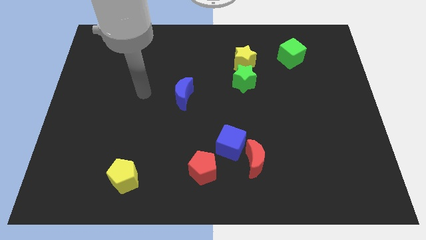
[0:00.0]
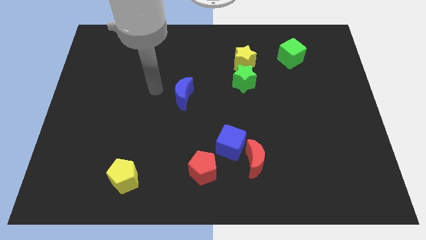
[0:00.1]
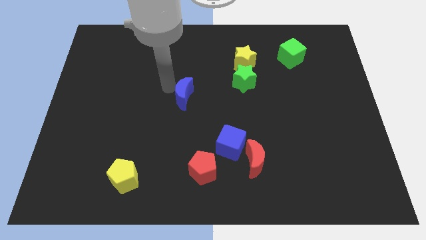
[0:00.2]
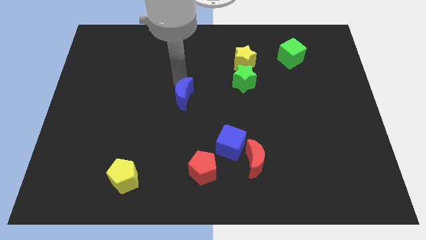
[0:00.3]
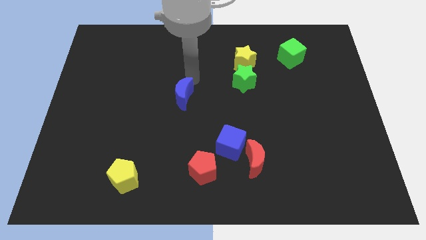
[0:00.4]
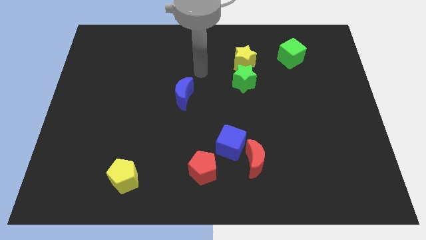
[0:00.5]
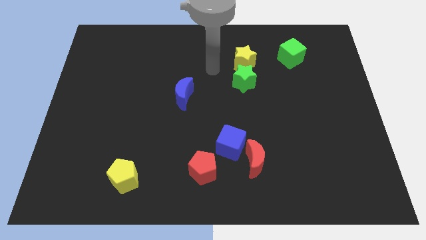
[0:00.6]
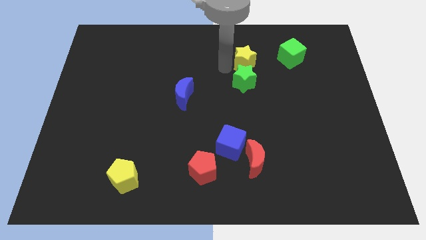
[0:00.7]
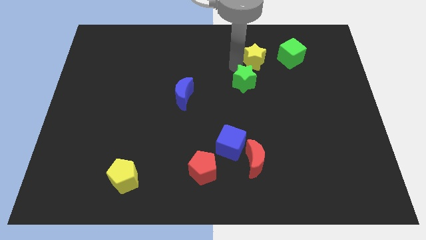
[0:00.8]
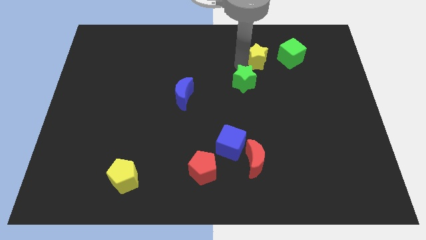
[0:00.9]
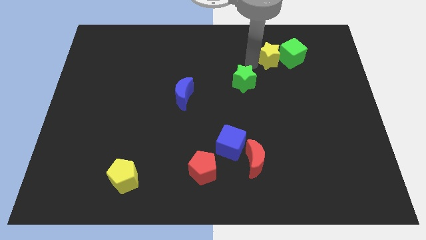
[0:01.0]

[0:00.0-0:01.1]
separate the green star from the yellow star

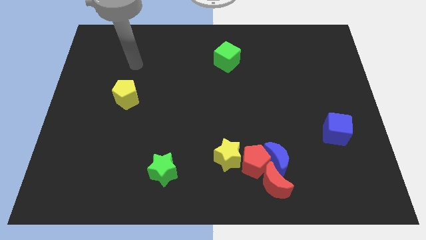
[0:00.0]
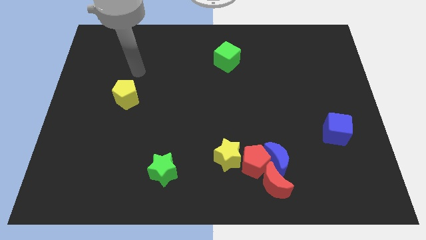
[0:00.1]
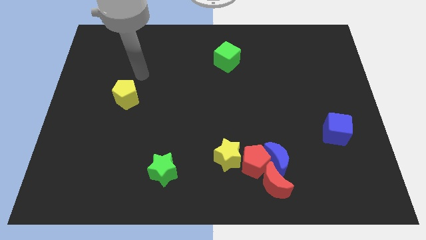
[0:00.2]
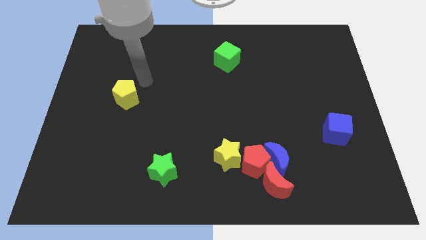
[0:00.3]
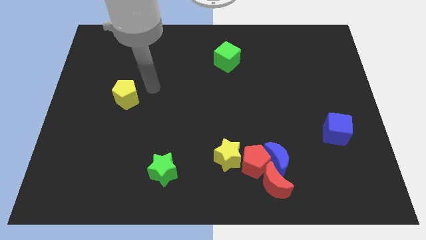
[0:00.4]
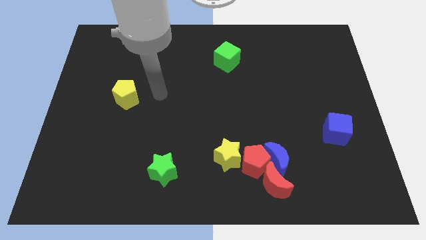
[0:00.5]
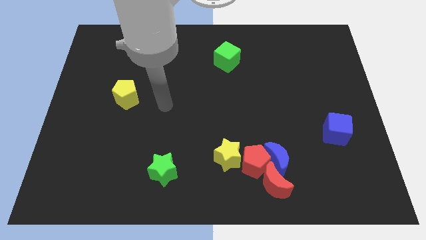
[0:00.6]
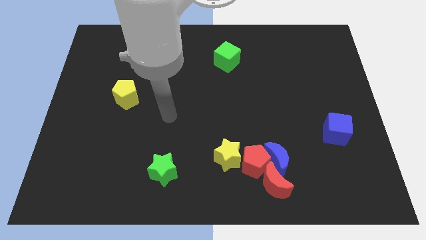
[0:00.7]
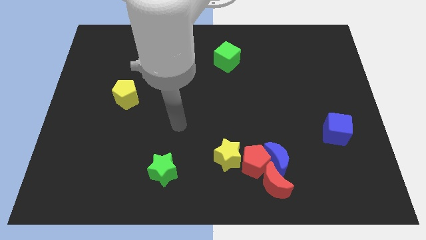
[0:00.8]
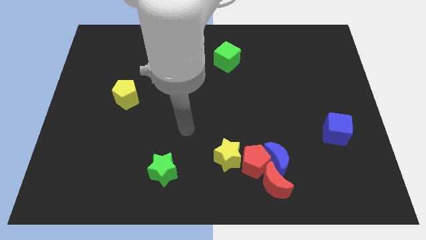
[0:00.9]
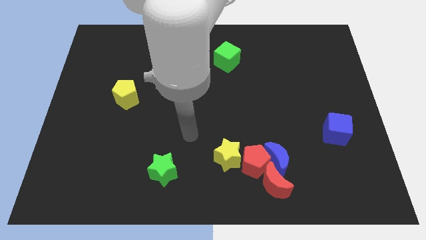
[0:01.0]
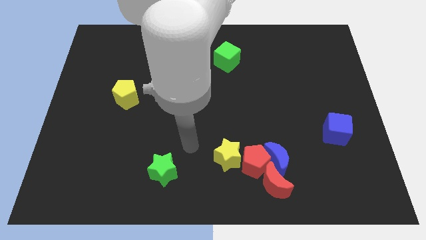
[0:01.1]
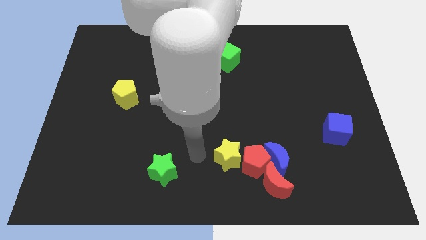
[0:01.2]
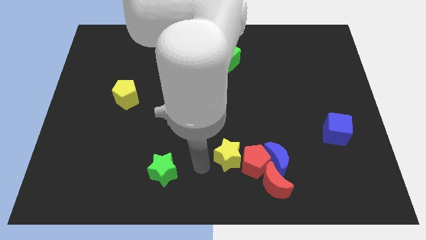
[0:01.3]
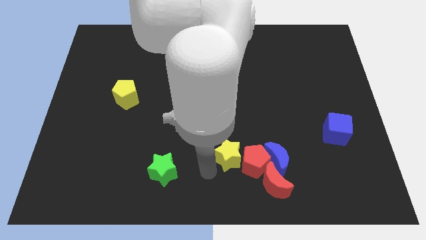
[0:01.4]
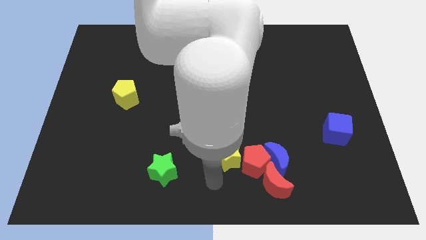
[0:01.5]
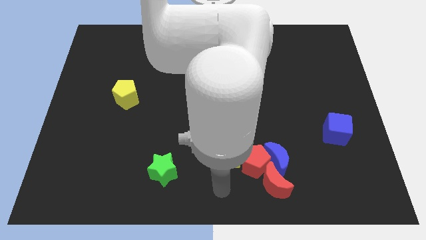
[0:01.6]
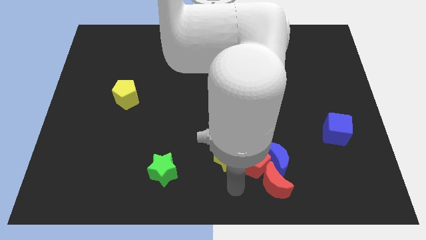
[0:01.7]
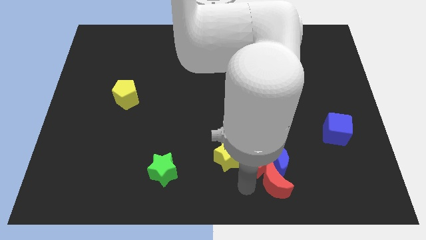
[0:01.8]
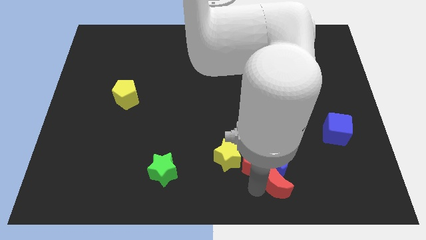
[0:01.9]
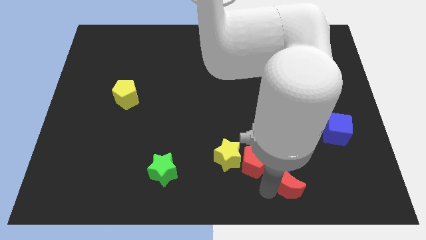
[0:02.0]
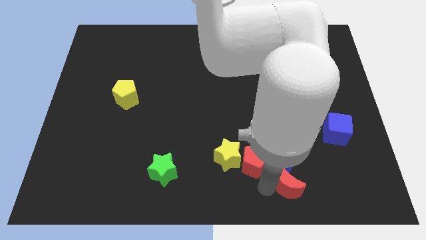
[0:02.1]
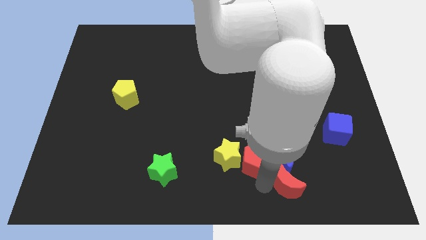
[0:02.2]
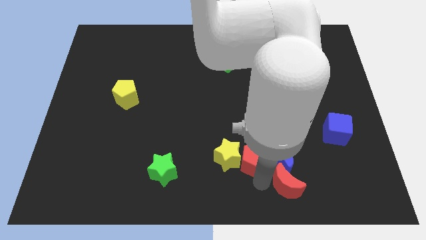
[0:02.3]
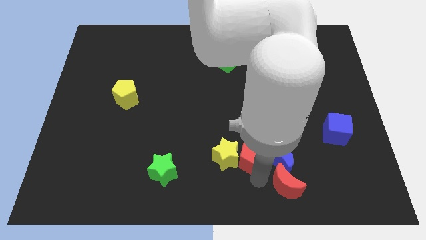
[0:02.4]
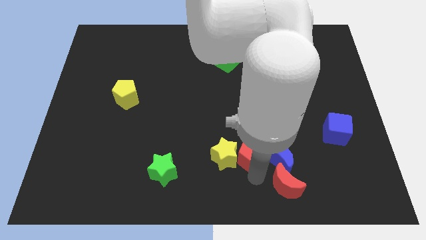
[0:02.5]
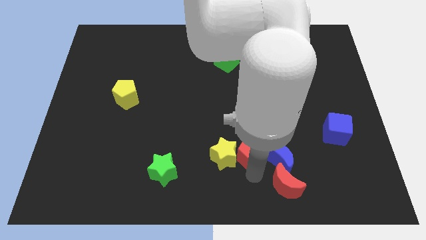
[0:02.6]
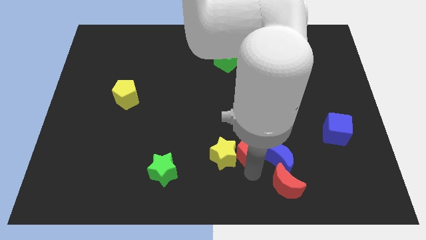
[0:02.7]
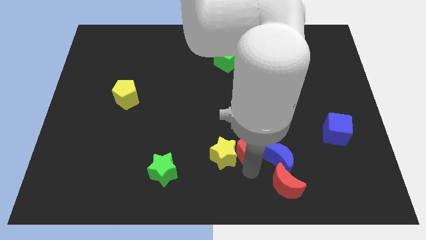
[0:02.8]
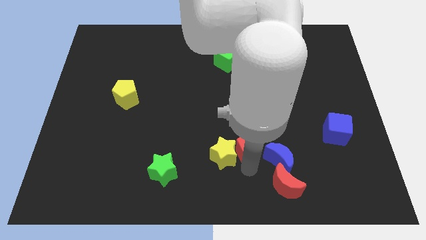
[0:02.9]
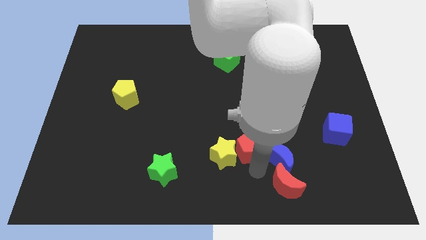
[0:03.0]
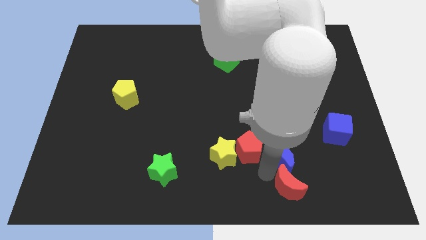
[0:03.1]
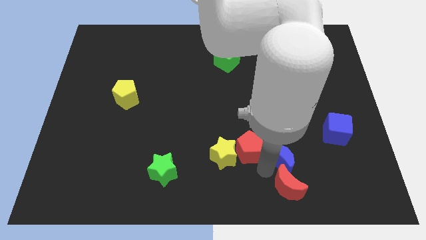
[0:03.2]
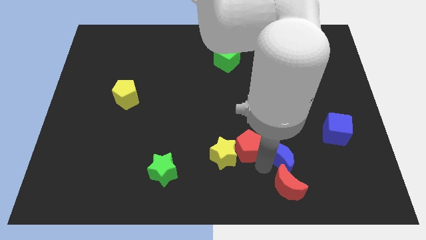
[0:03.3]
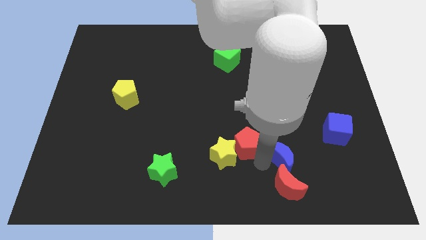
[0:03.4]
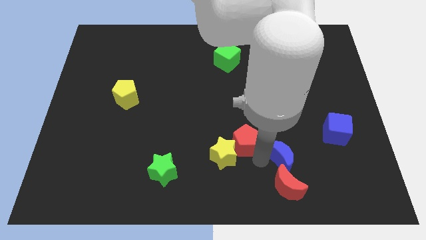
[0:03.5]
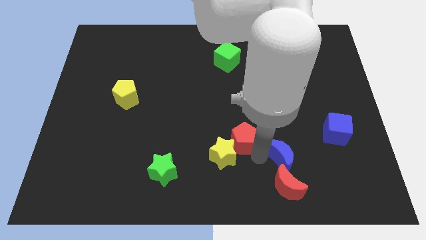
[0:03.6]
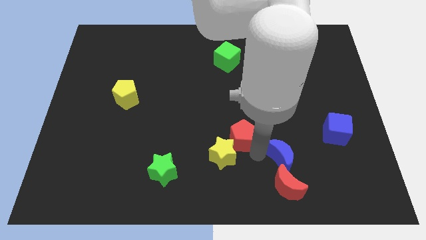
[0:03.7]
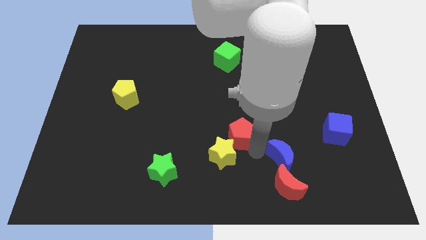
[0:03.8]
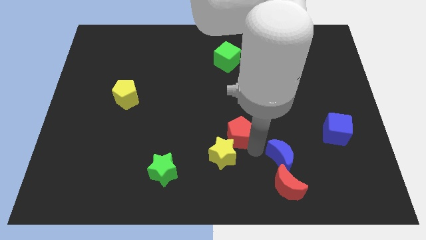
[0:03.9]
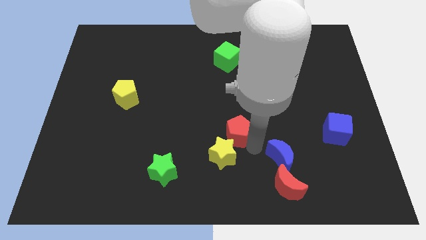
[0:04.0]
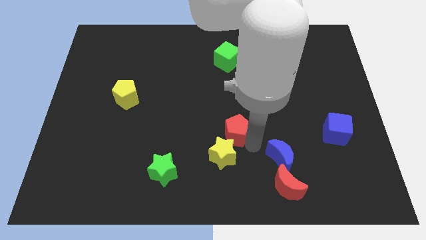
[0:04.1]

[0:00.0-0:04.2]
separate the red pentagon from the blue moon, yellow star, and red moon

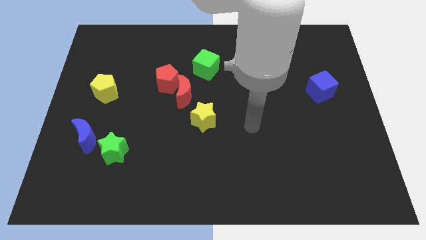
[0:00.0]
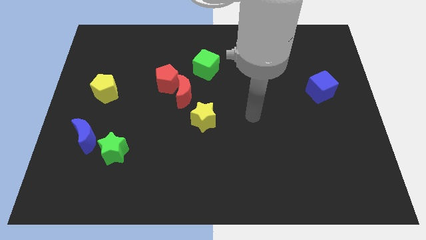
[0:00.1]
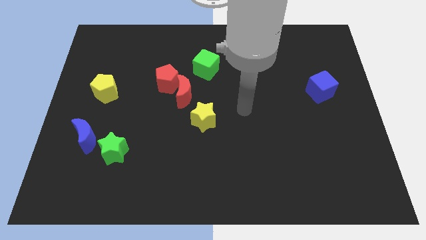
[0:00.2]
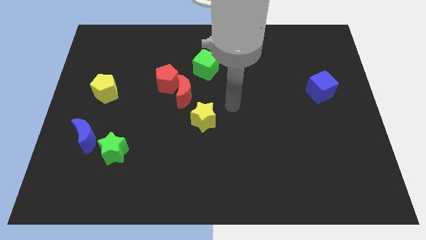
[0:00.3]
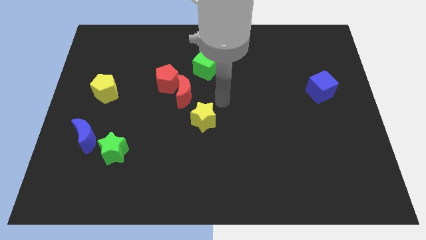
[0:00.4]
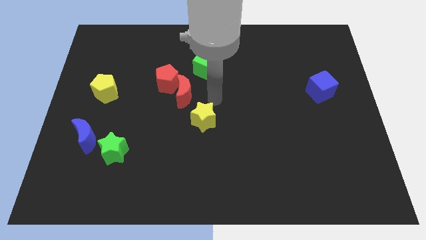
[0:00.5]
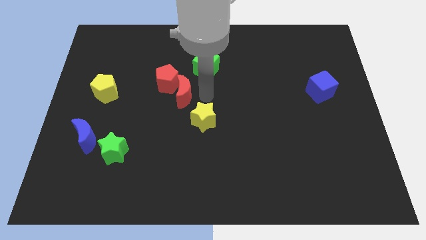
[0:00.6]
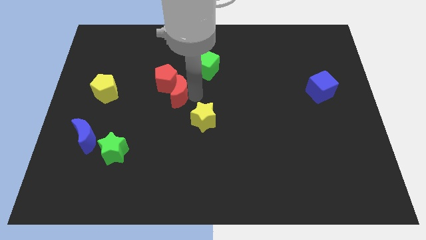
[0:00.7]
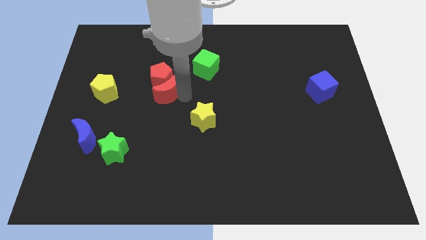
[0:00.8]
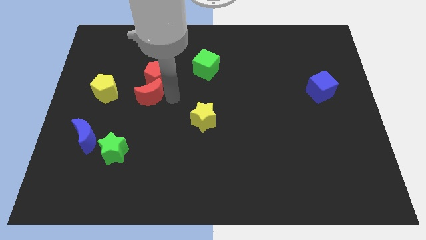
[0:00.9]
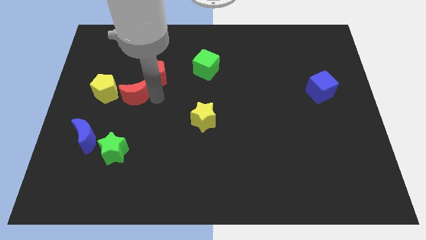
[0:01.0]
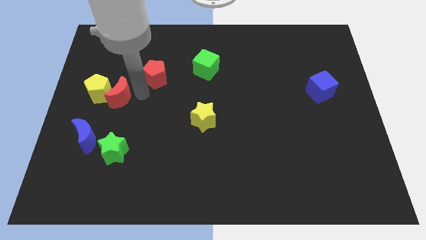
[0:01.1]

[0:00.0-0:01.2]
move the red pentagon away from the red moon

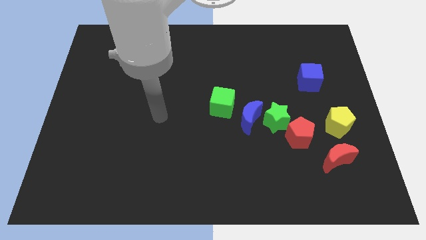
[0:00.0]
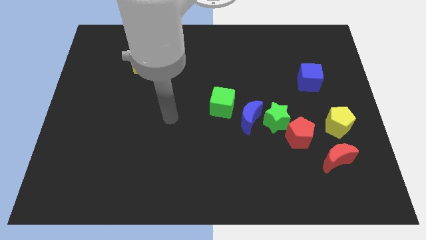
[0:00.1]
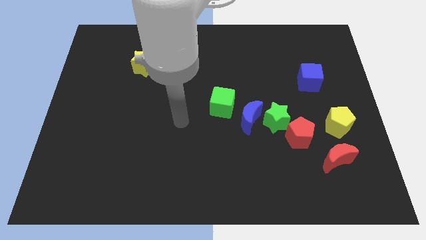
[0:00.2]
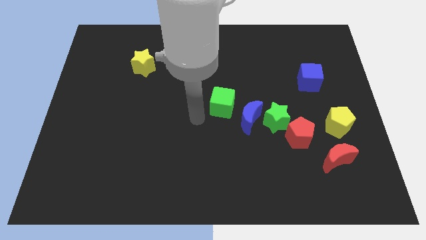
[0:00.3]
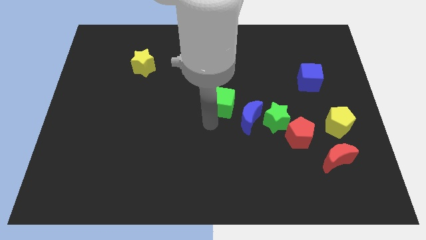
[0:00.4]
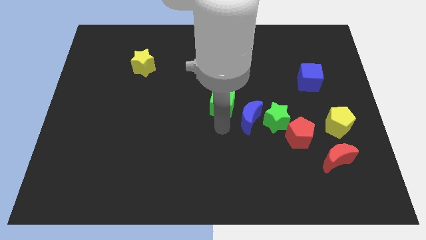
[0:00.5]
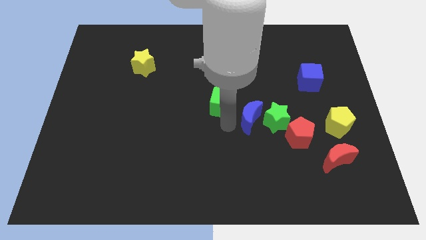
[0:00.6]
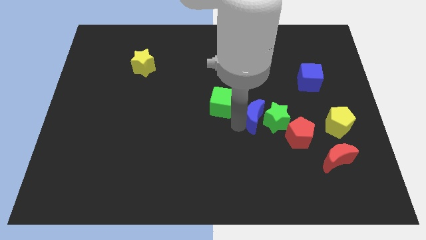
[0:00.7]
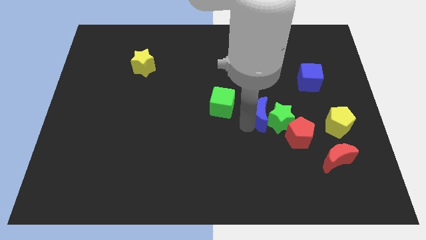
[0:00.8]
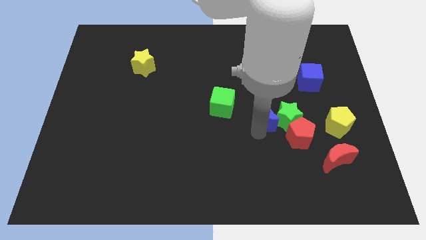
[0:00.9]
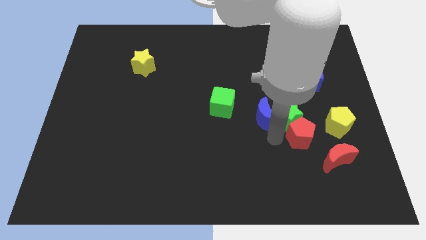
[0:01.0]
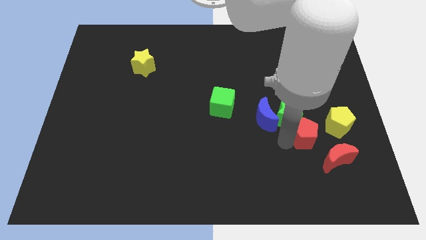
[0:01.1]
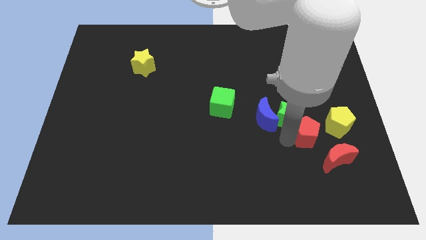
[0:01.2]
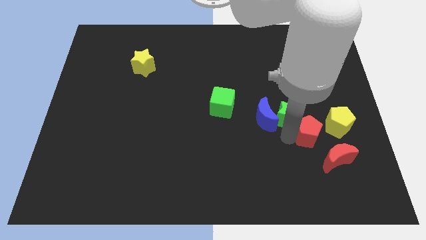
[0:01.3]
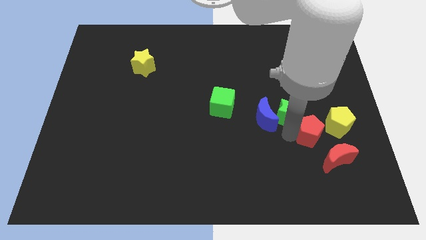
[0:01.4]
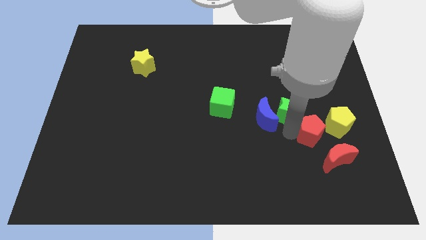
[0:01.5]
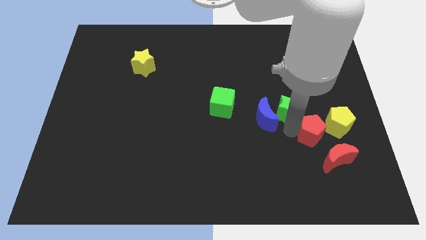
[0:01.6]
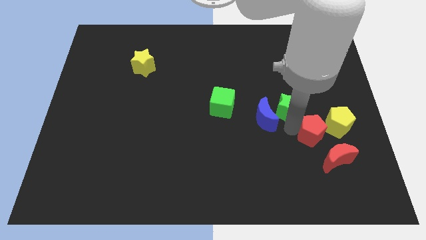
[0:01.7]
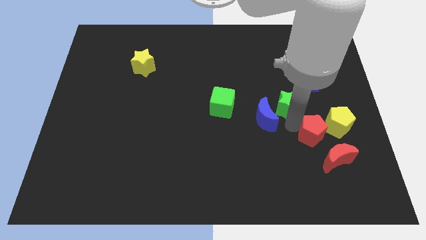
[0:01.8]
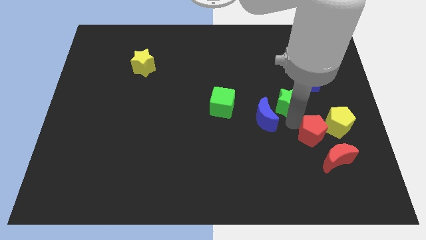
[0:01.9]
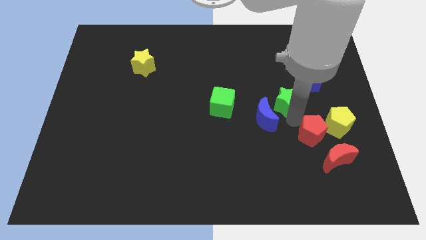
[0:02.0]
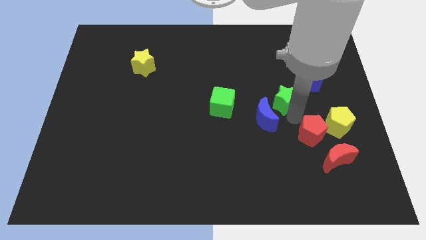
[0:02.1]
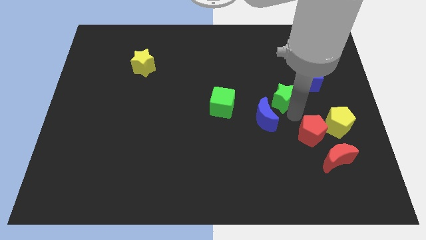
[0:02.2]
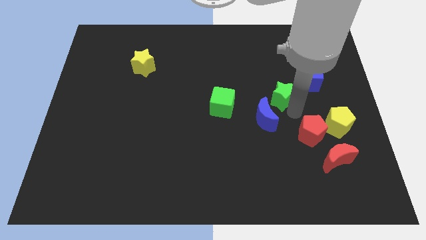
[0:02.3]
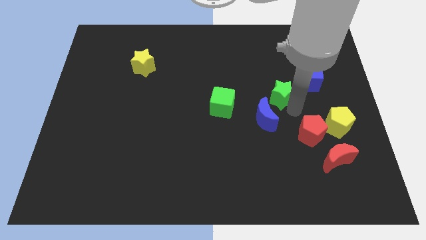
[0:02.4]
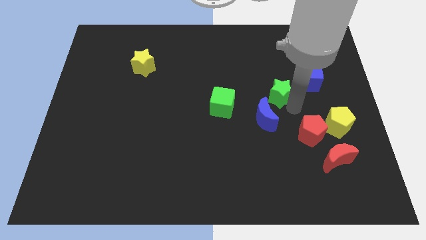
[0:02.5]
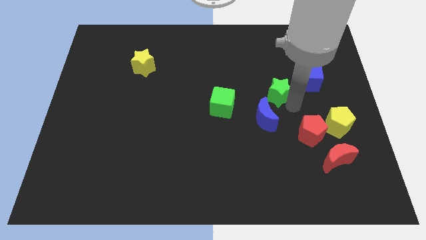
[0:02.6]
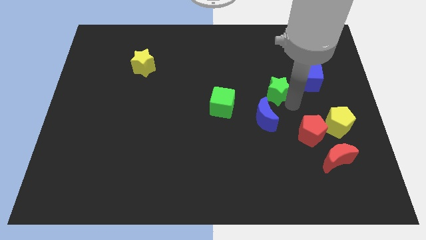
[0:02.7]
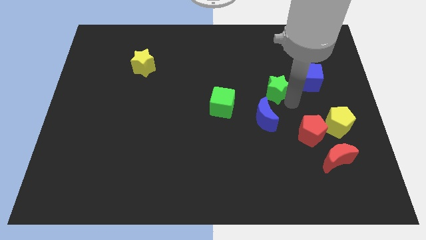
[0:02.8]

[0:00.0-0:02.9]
separate the green star from the red pentagon and blue moon
